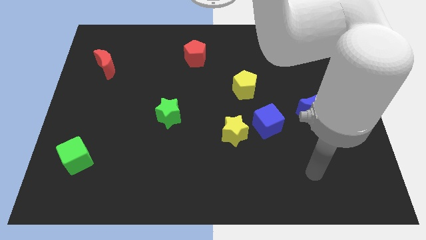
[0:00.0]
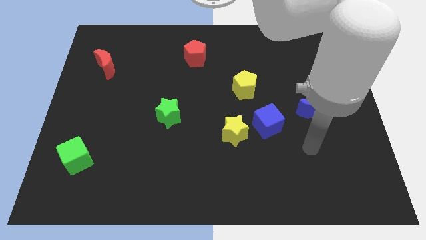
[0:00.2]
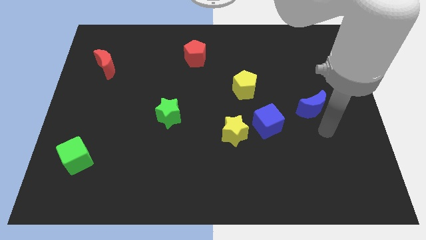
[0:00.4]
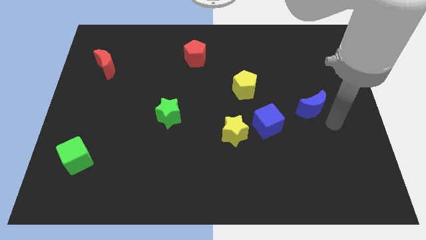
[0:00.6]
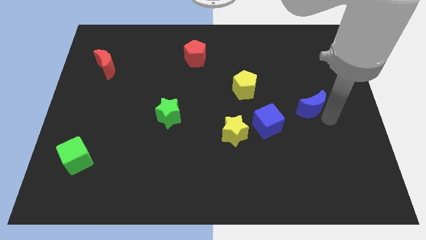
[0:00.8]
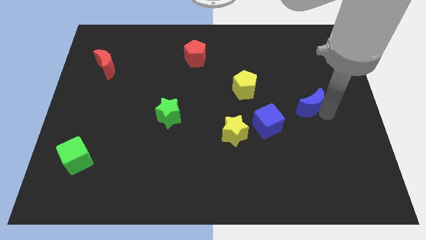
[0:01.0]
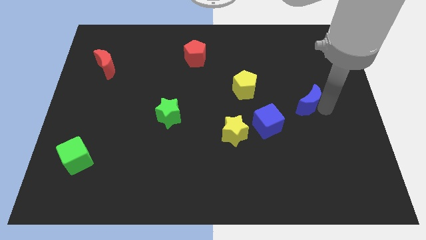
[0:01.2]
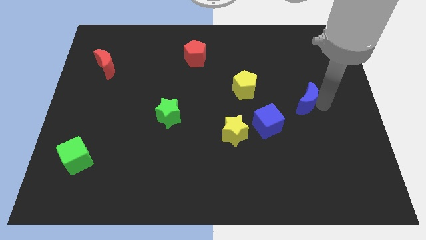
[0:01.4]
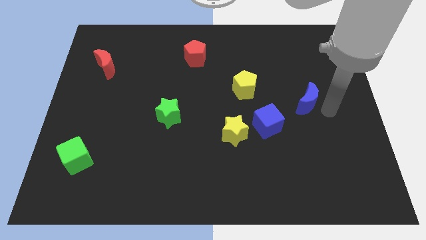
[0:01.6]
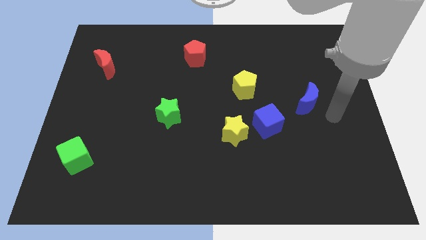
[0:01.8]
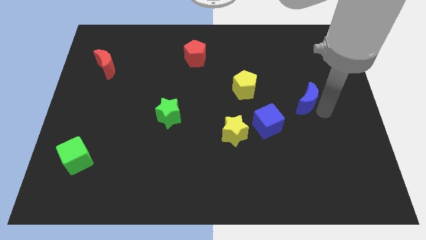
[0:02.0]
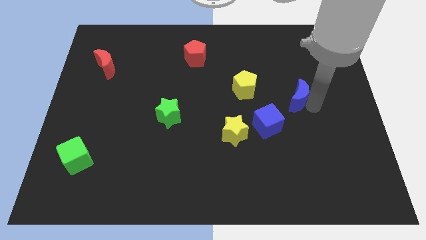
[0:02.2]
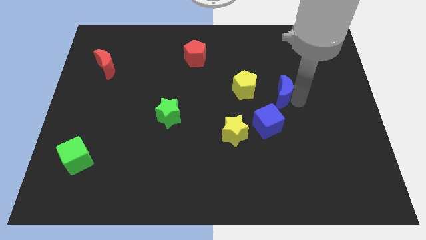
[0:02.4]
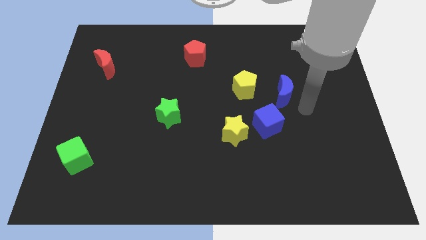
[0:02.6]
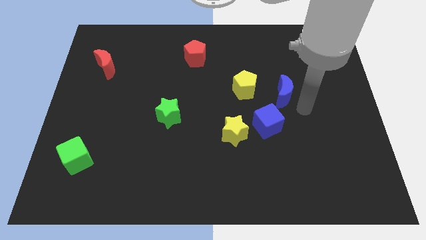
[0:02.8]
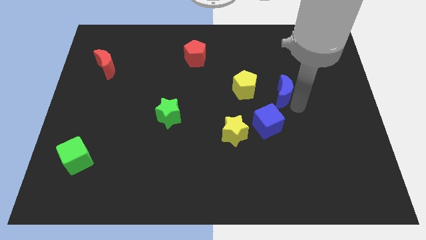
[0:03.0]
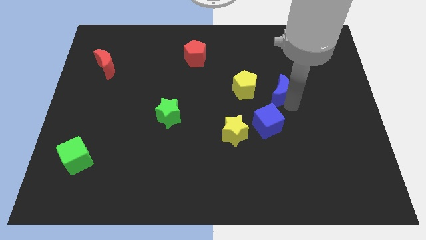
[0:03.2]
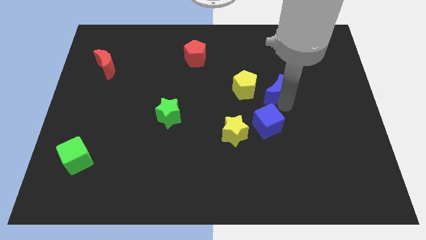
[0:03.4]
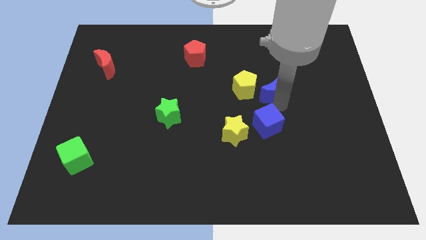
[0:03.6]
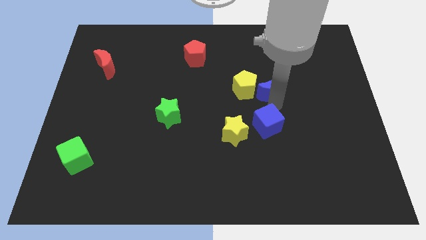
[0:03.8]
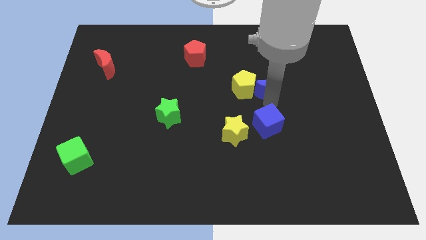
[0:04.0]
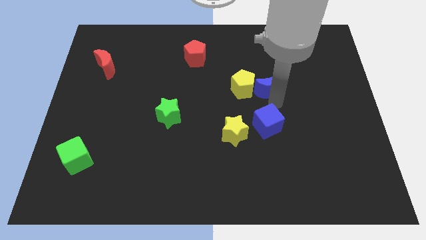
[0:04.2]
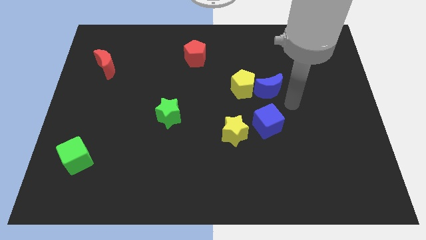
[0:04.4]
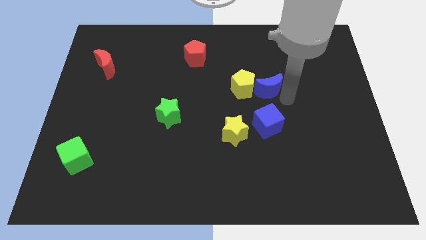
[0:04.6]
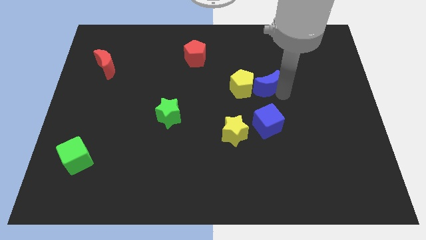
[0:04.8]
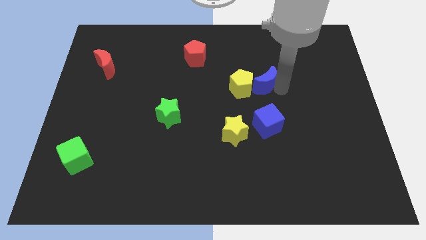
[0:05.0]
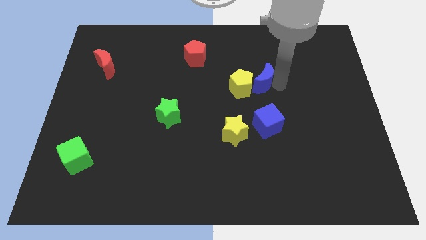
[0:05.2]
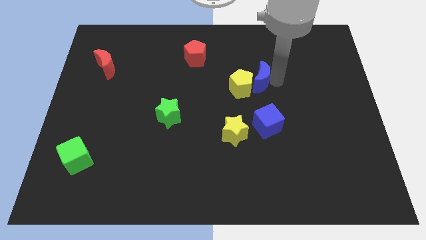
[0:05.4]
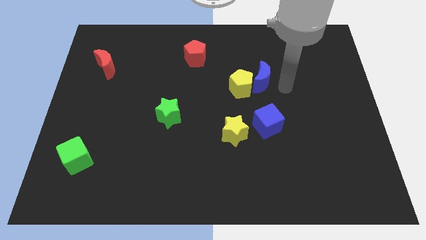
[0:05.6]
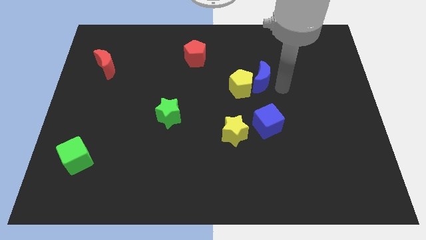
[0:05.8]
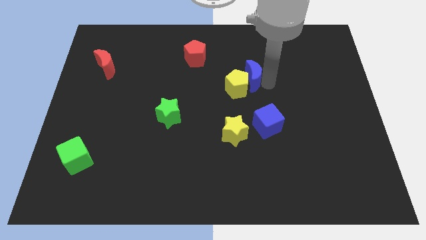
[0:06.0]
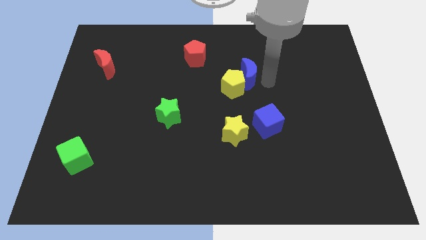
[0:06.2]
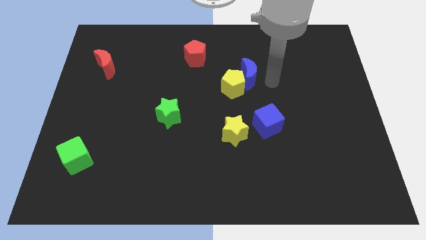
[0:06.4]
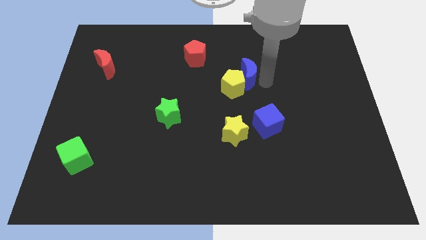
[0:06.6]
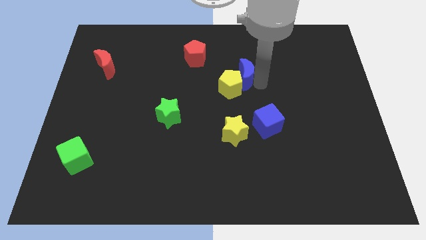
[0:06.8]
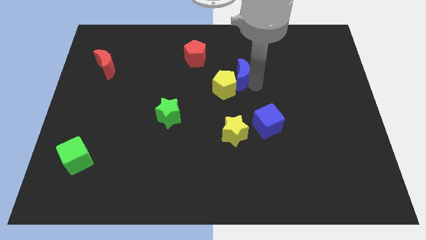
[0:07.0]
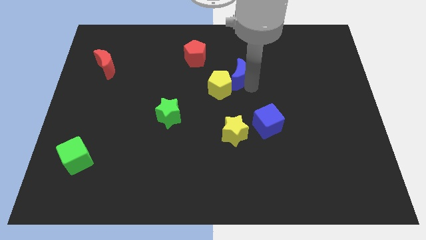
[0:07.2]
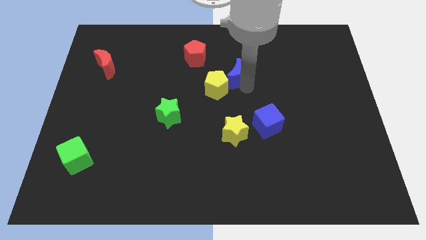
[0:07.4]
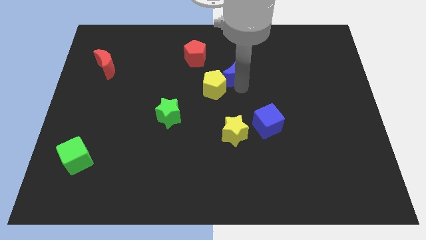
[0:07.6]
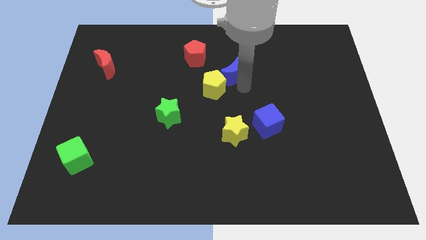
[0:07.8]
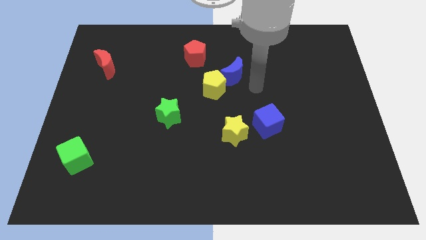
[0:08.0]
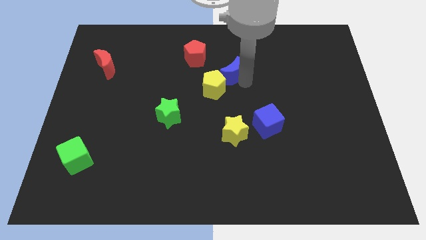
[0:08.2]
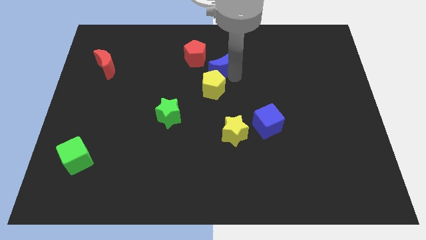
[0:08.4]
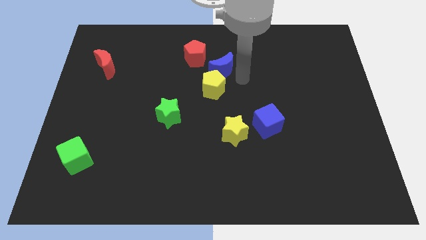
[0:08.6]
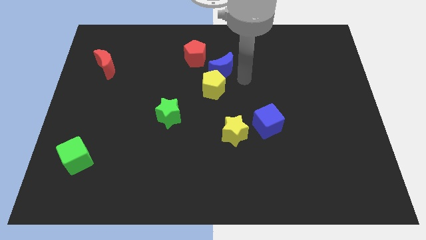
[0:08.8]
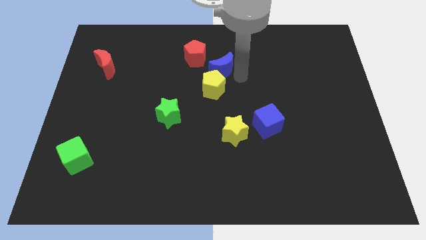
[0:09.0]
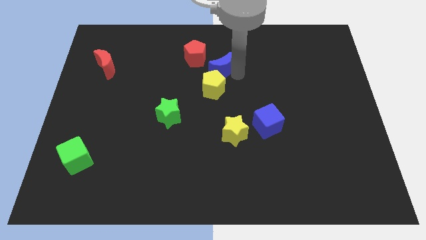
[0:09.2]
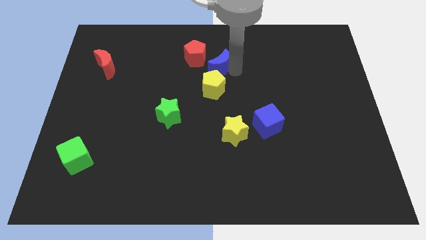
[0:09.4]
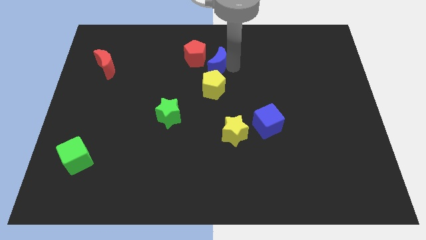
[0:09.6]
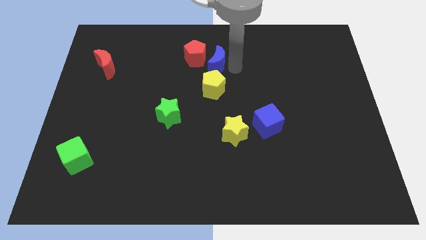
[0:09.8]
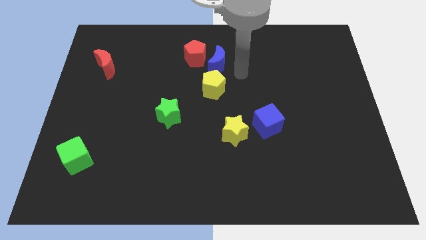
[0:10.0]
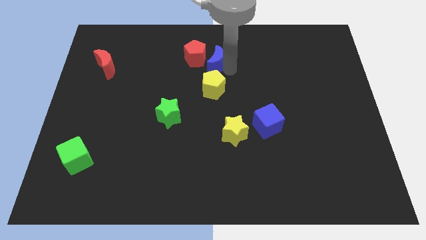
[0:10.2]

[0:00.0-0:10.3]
move the blue moon to the red pentagon

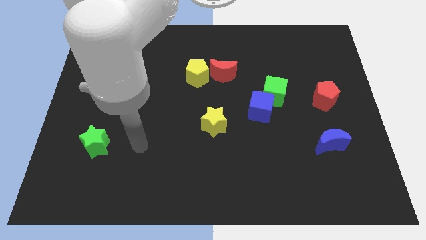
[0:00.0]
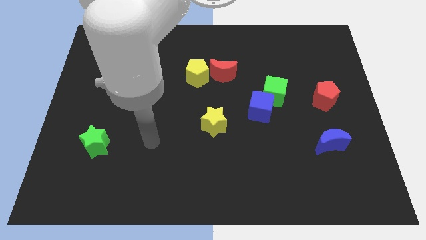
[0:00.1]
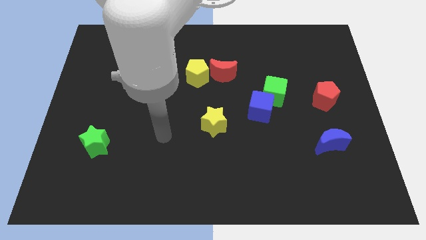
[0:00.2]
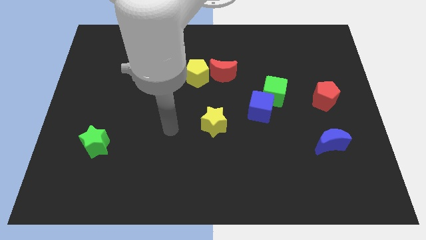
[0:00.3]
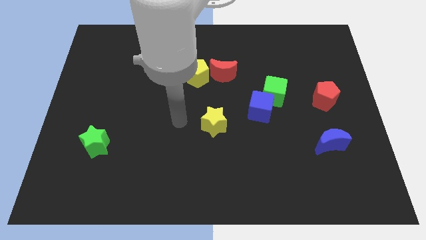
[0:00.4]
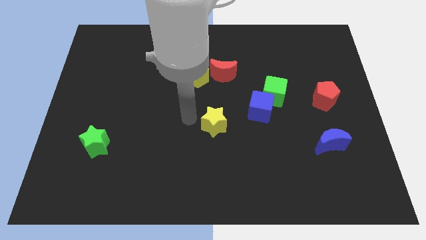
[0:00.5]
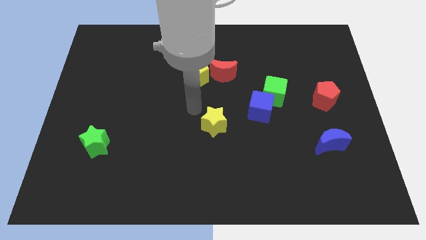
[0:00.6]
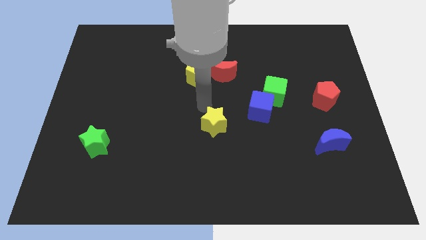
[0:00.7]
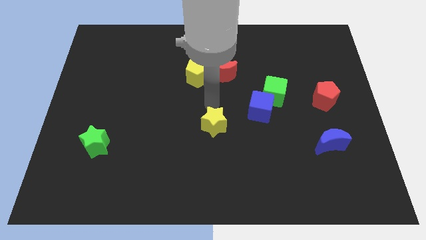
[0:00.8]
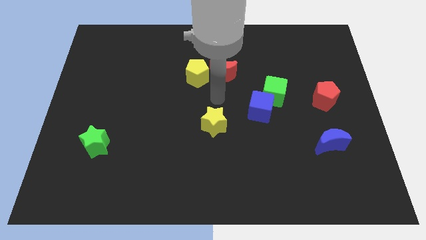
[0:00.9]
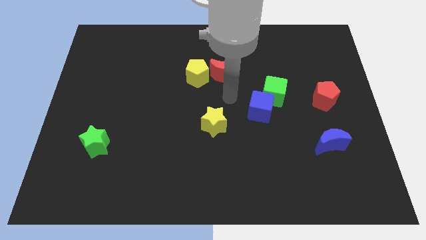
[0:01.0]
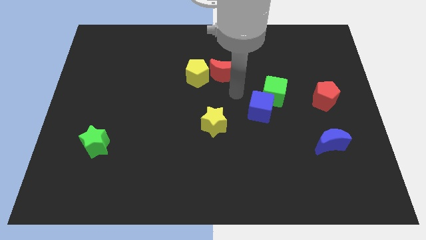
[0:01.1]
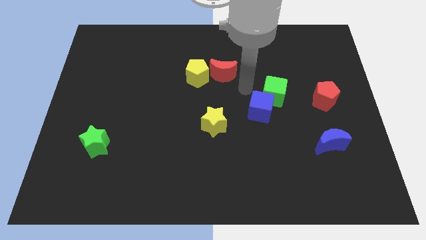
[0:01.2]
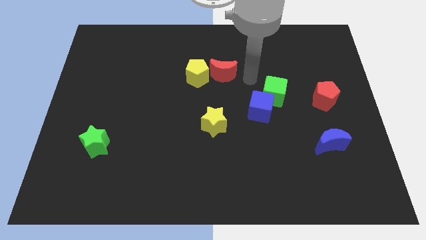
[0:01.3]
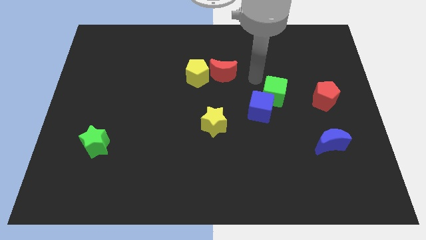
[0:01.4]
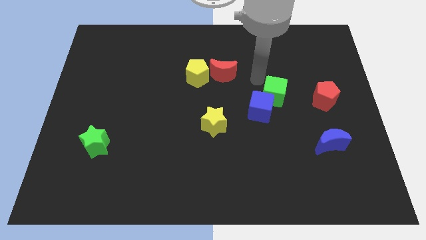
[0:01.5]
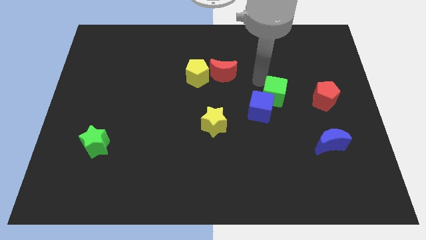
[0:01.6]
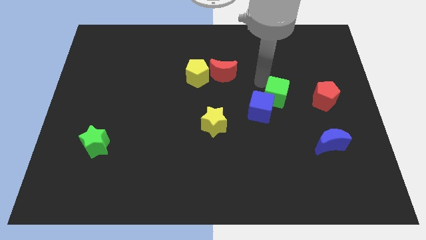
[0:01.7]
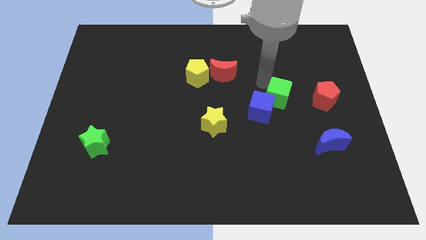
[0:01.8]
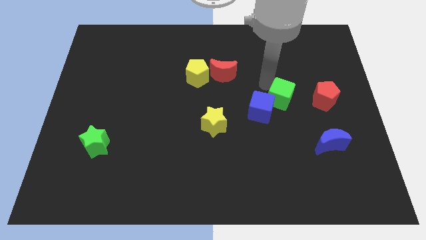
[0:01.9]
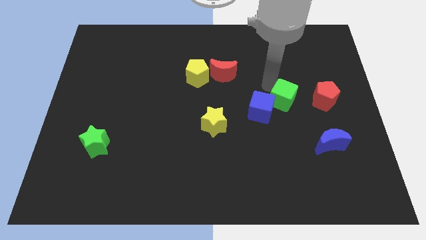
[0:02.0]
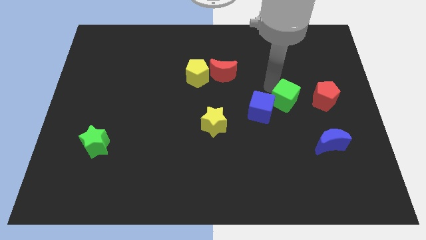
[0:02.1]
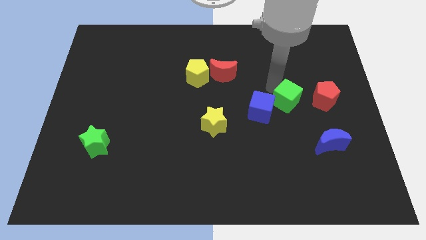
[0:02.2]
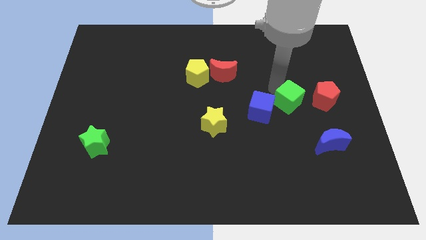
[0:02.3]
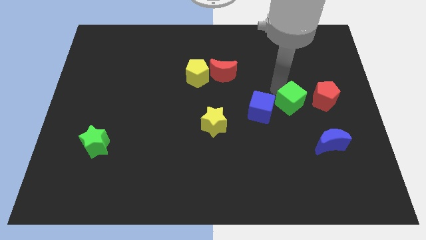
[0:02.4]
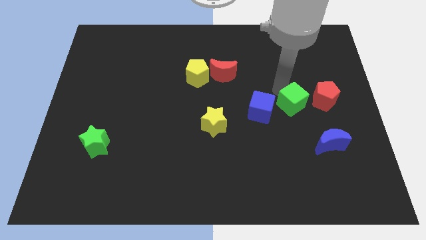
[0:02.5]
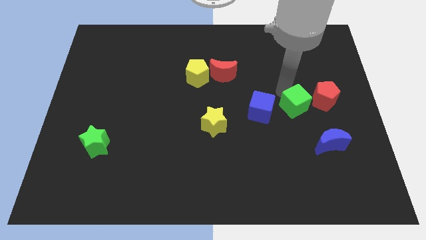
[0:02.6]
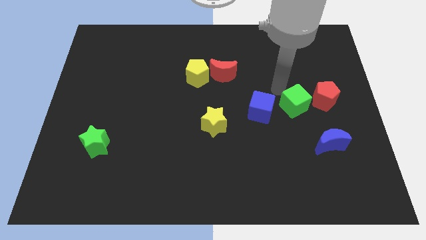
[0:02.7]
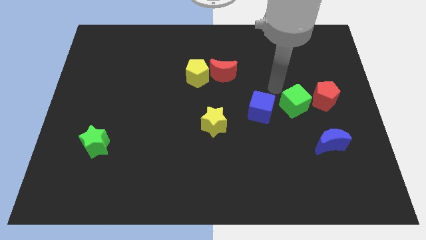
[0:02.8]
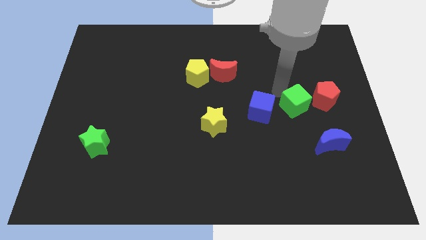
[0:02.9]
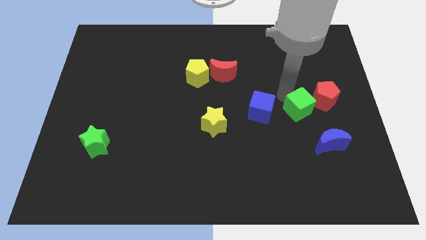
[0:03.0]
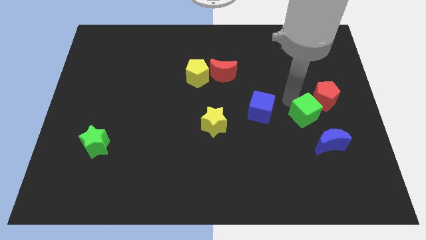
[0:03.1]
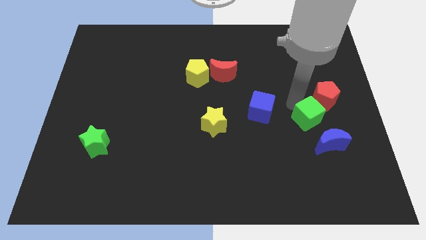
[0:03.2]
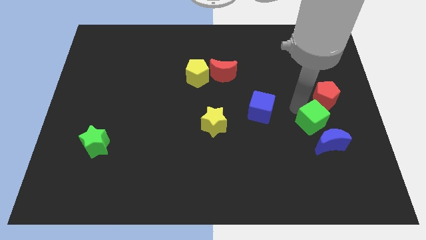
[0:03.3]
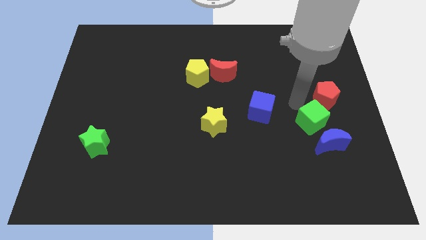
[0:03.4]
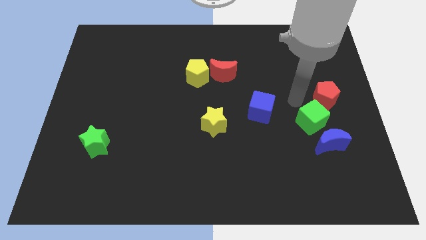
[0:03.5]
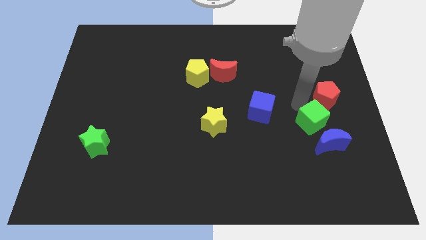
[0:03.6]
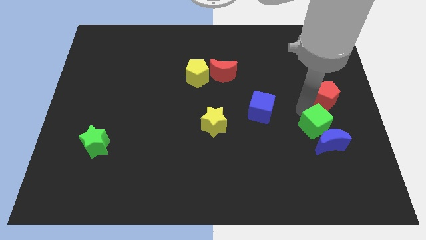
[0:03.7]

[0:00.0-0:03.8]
put the green cube next to the blue moon
